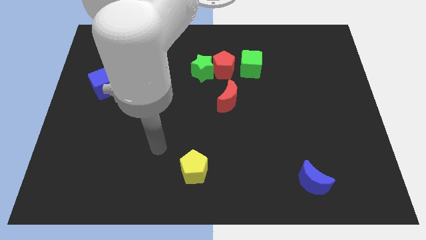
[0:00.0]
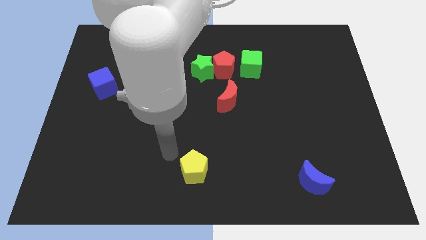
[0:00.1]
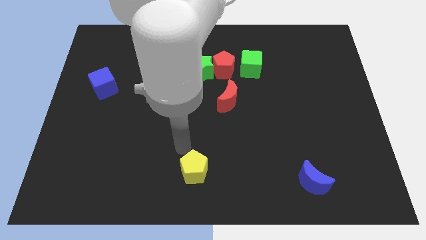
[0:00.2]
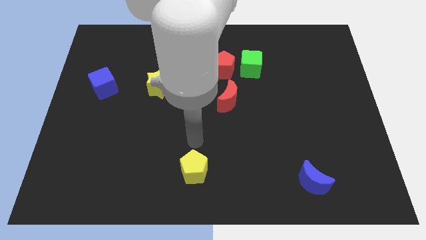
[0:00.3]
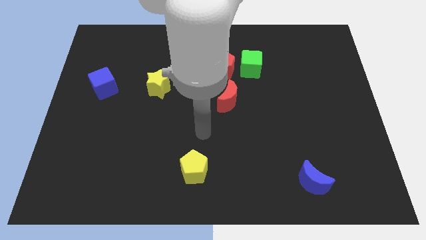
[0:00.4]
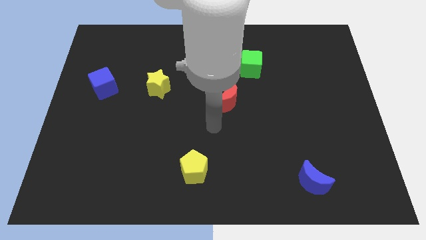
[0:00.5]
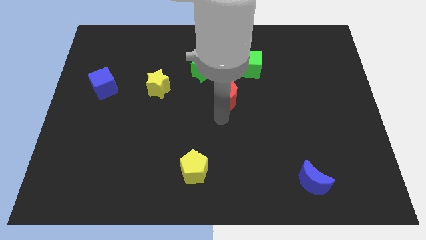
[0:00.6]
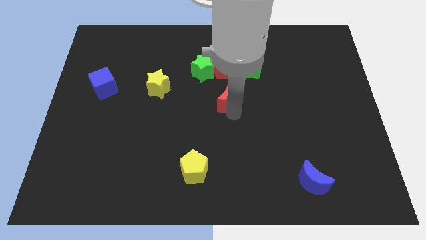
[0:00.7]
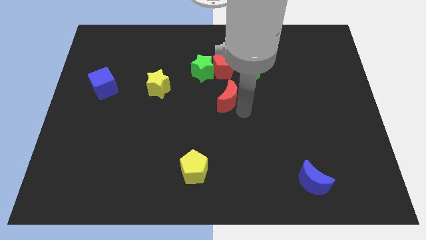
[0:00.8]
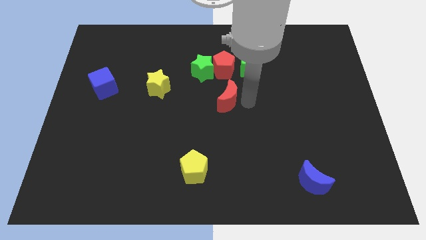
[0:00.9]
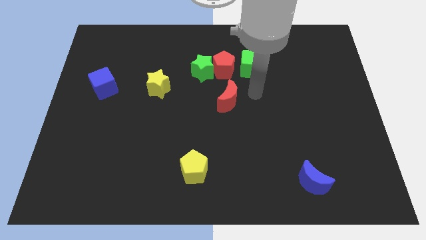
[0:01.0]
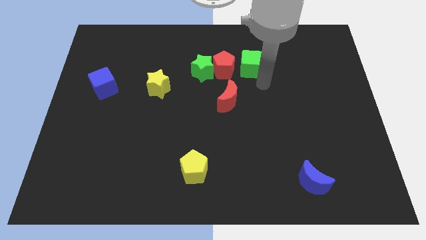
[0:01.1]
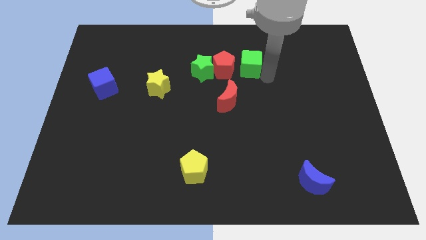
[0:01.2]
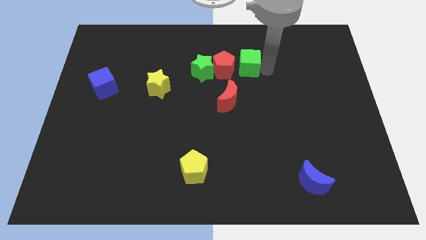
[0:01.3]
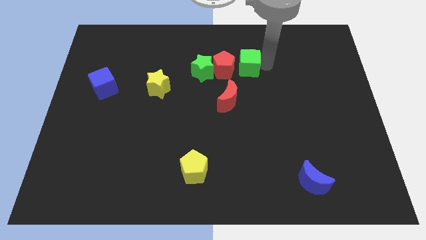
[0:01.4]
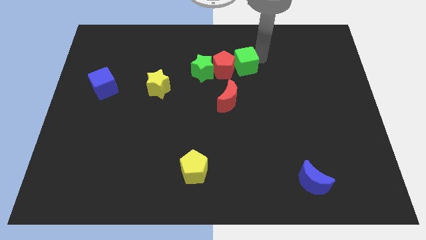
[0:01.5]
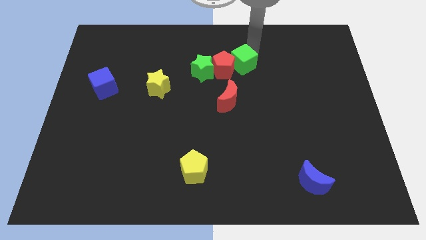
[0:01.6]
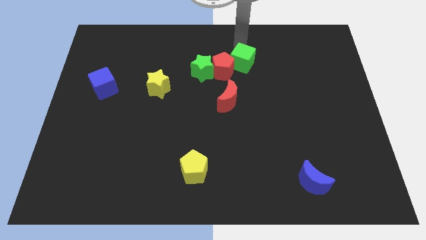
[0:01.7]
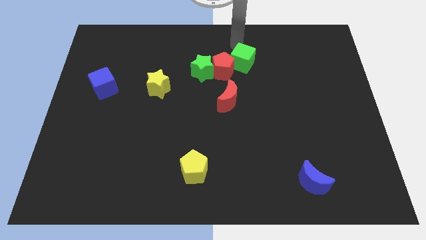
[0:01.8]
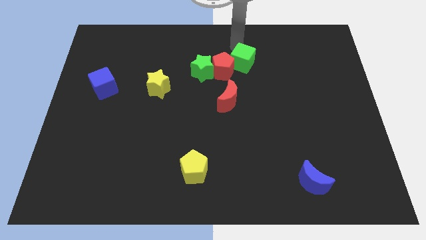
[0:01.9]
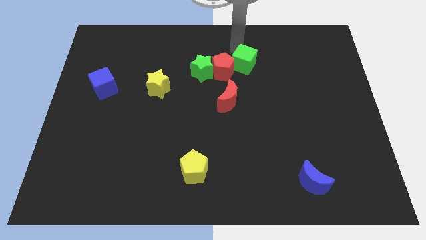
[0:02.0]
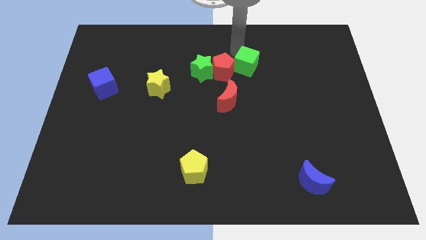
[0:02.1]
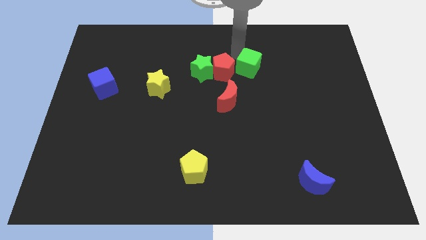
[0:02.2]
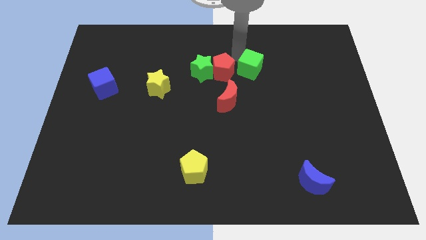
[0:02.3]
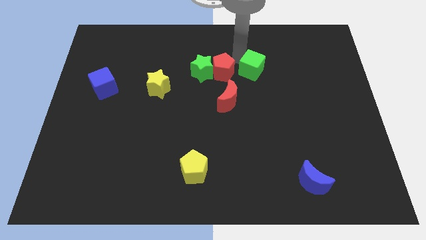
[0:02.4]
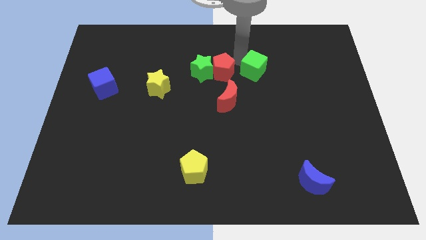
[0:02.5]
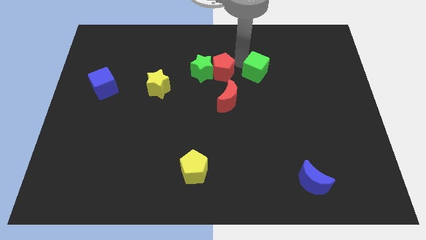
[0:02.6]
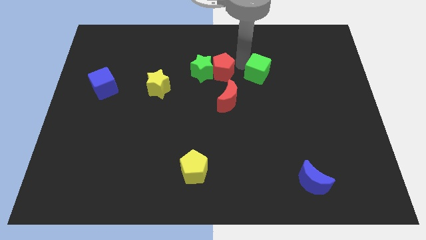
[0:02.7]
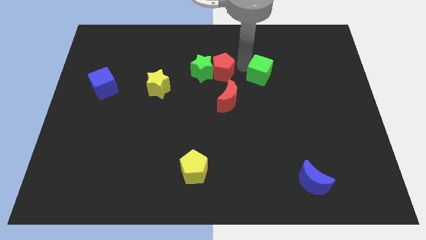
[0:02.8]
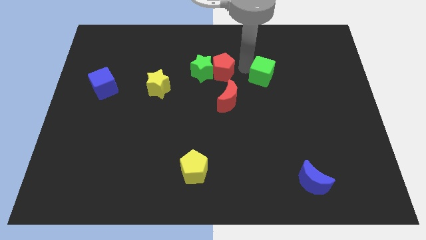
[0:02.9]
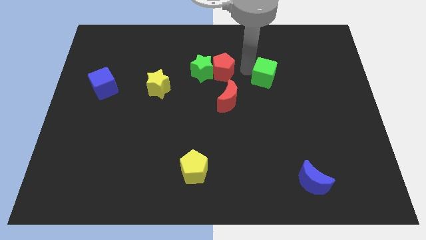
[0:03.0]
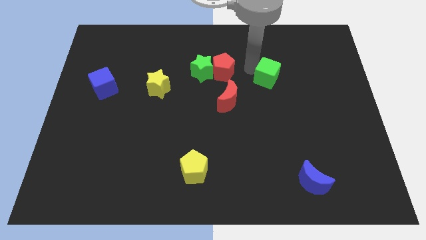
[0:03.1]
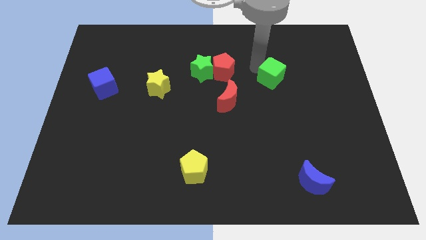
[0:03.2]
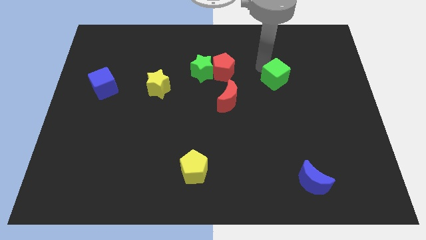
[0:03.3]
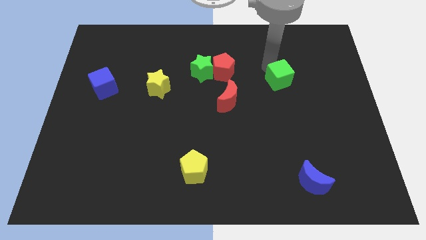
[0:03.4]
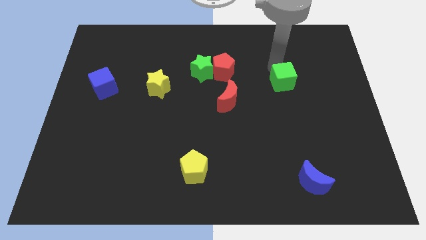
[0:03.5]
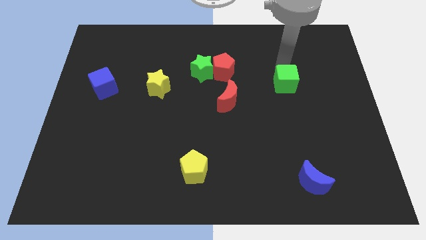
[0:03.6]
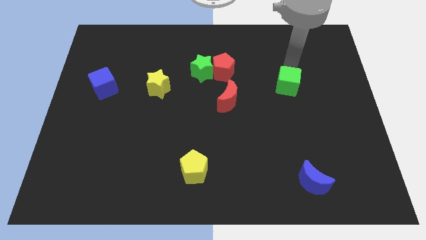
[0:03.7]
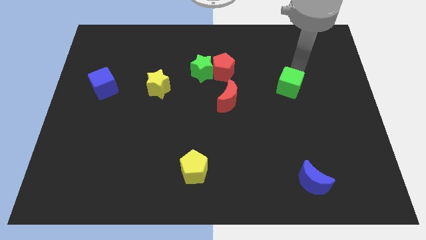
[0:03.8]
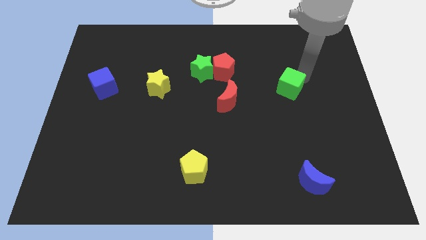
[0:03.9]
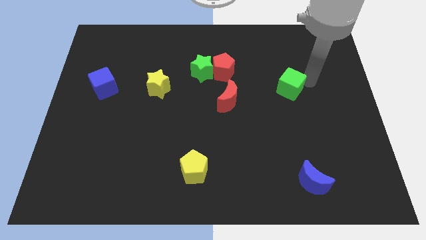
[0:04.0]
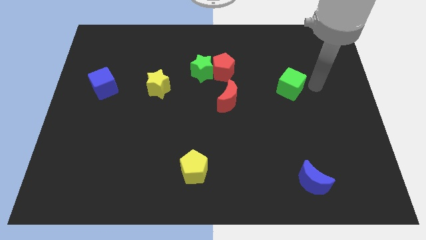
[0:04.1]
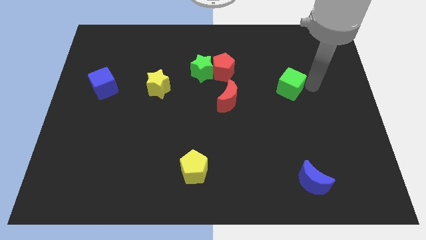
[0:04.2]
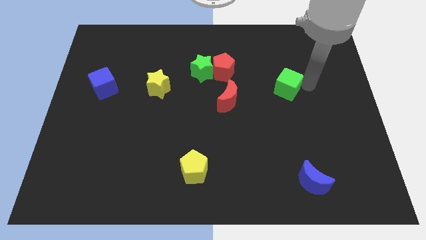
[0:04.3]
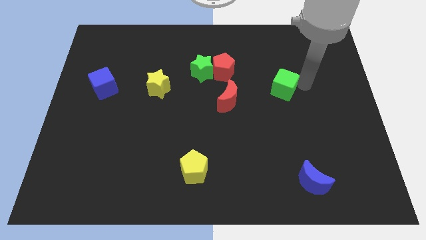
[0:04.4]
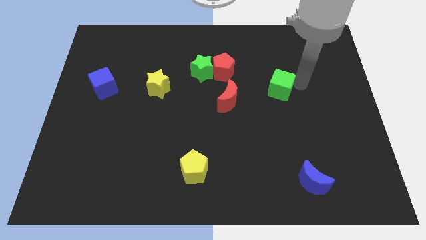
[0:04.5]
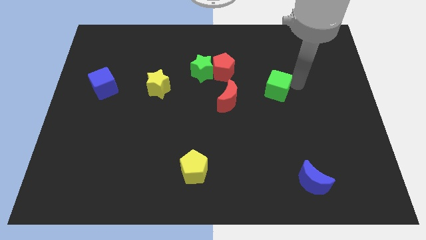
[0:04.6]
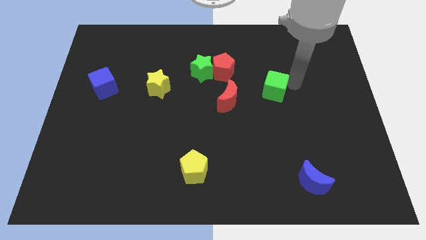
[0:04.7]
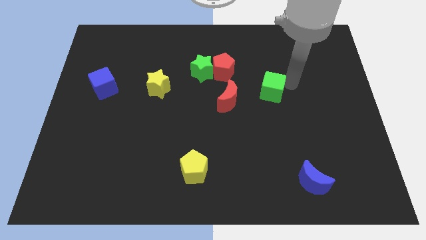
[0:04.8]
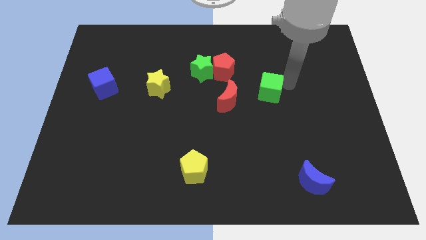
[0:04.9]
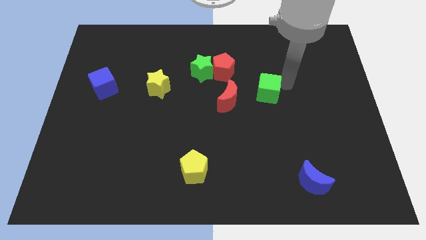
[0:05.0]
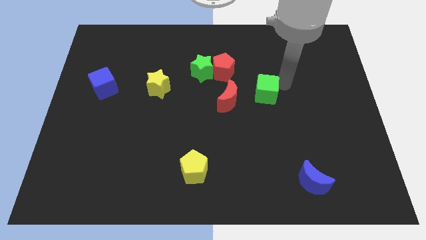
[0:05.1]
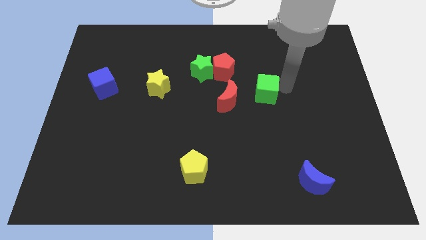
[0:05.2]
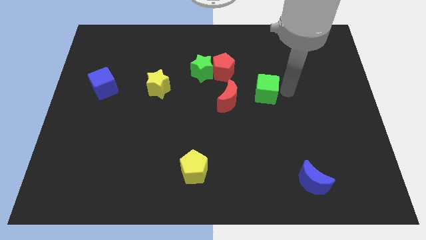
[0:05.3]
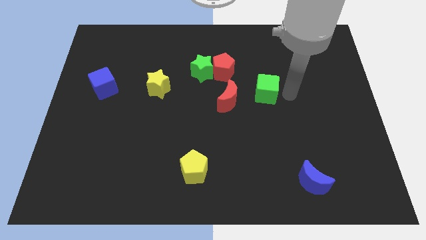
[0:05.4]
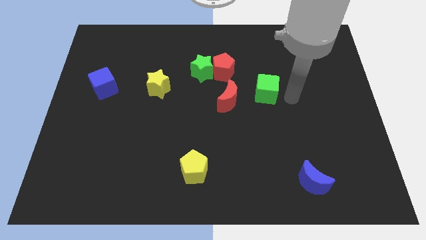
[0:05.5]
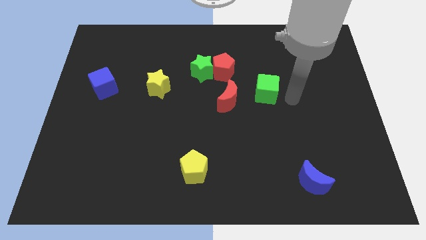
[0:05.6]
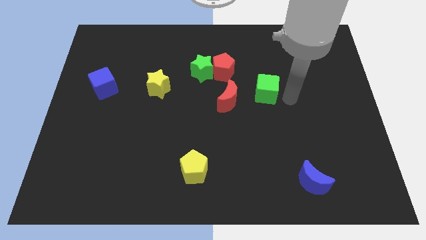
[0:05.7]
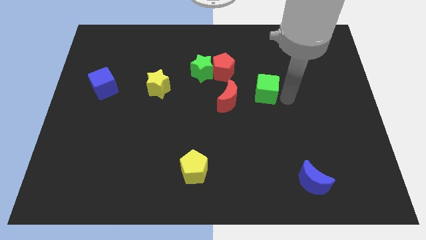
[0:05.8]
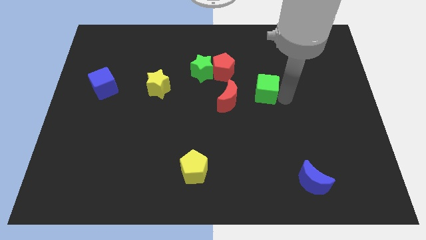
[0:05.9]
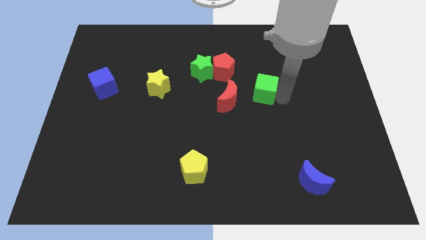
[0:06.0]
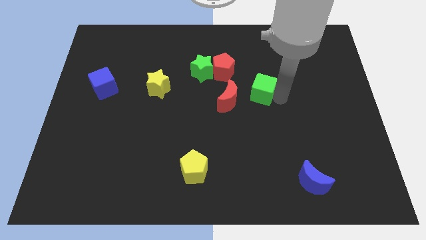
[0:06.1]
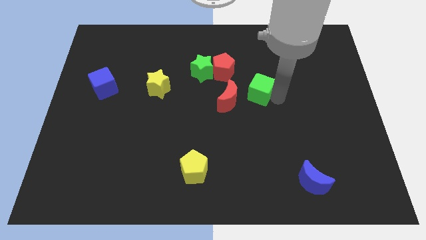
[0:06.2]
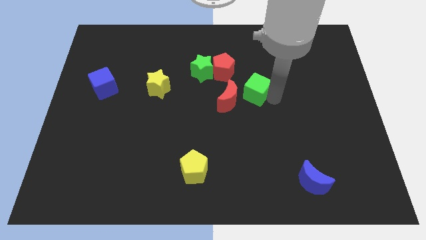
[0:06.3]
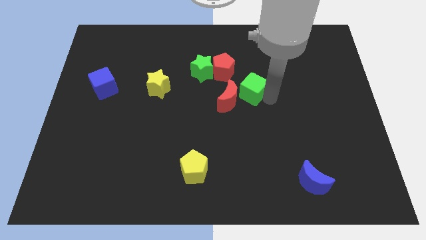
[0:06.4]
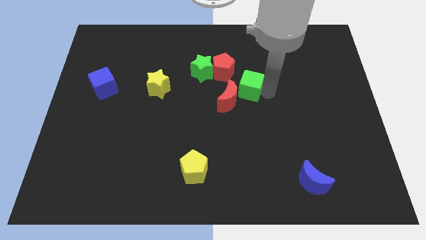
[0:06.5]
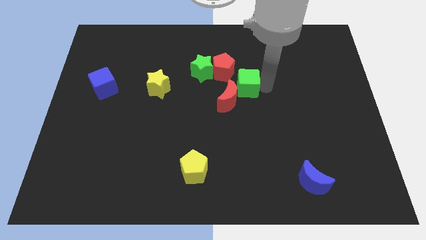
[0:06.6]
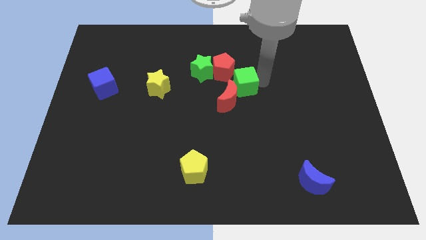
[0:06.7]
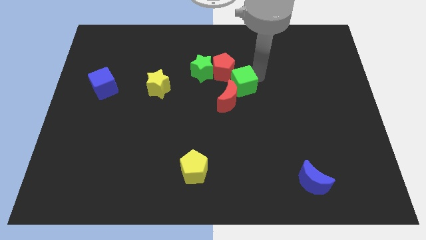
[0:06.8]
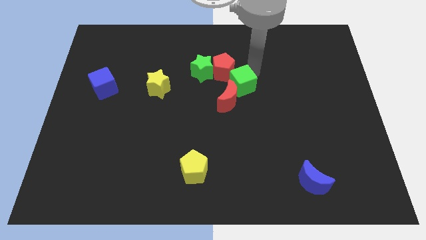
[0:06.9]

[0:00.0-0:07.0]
put the green cube to the bottom of the red pentagon
